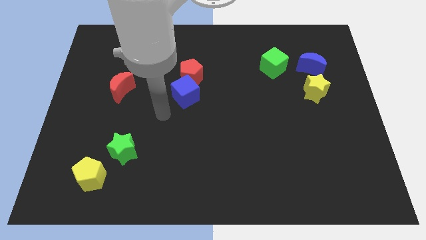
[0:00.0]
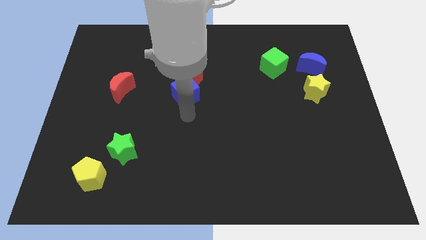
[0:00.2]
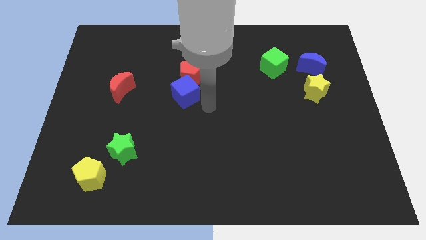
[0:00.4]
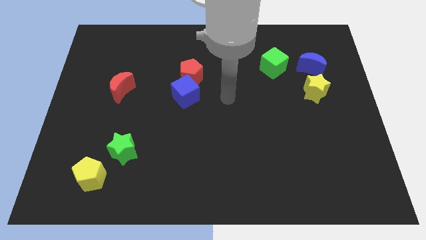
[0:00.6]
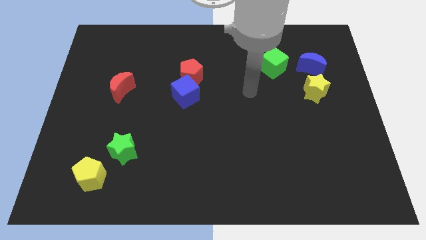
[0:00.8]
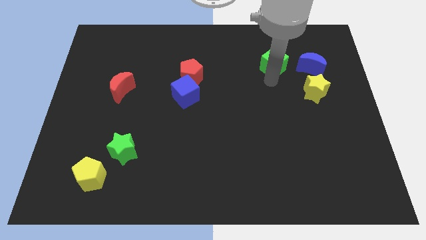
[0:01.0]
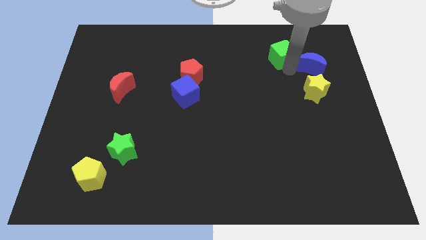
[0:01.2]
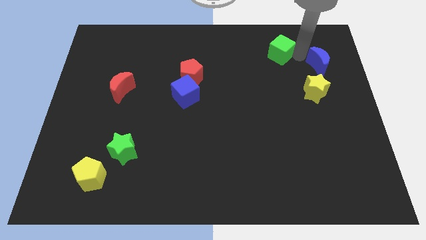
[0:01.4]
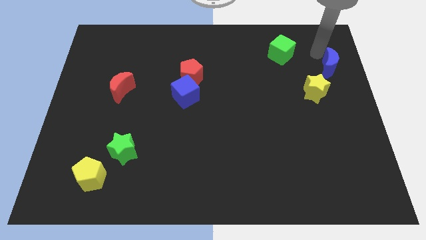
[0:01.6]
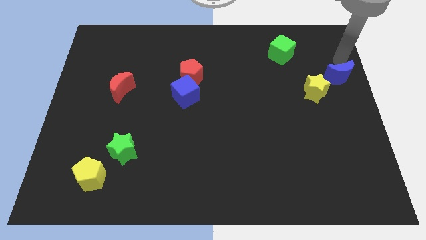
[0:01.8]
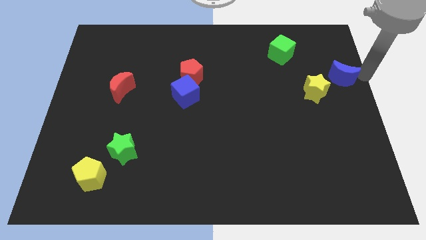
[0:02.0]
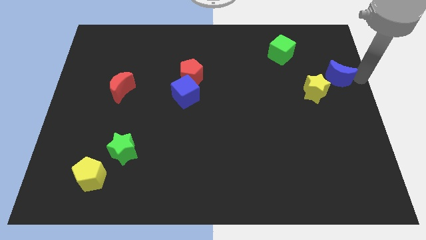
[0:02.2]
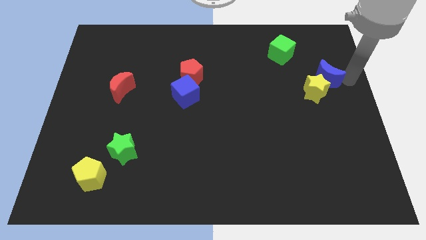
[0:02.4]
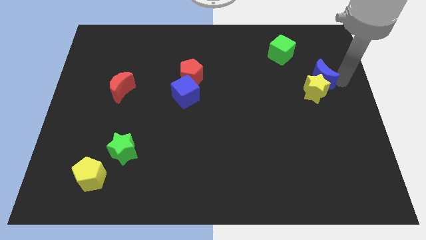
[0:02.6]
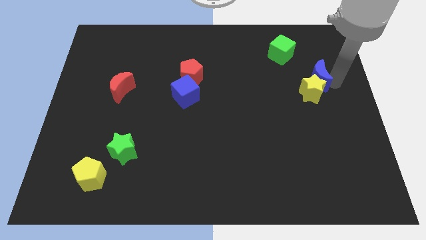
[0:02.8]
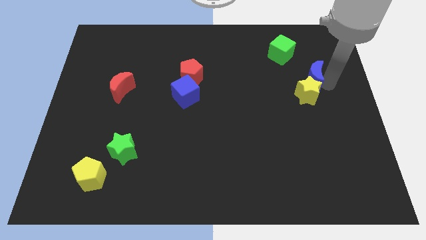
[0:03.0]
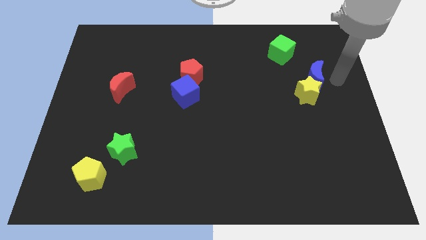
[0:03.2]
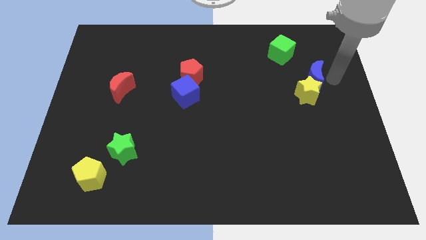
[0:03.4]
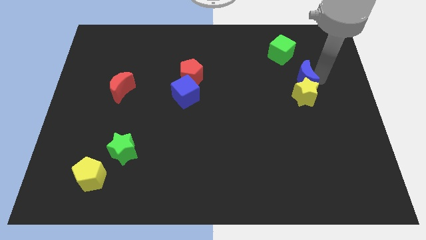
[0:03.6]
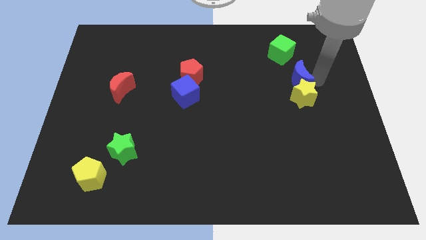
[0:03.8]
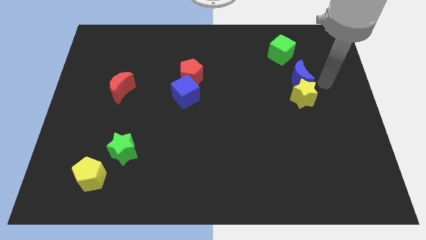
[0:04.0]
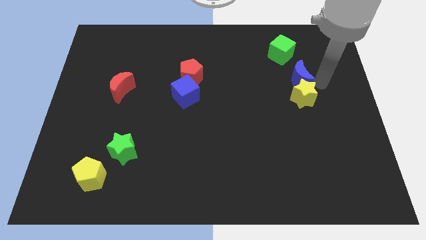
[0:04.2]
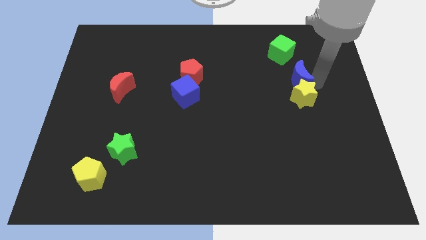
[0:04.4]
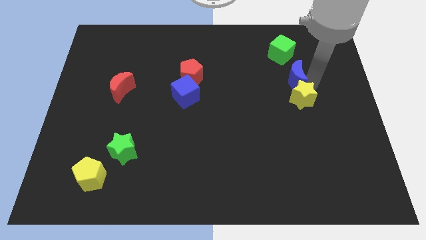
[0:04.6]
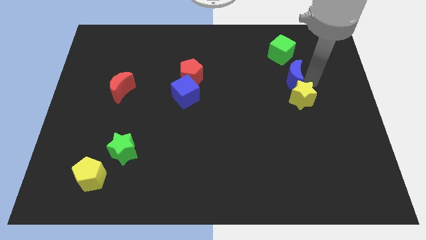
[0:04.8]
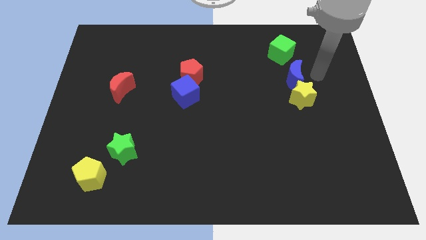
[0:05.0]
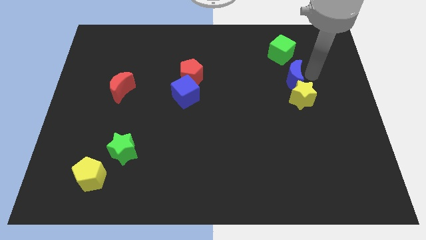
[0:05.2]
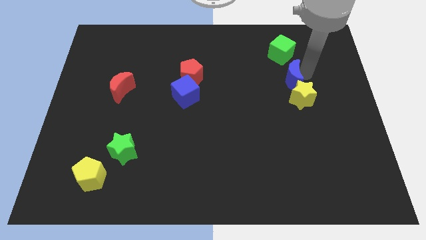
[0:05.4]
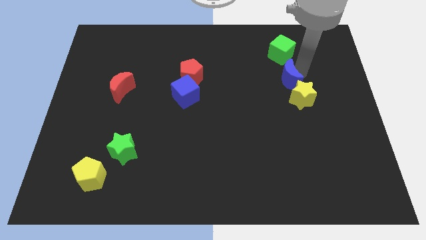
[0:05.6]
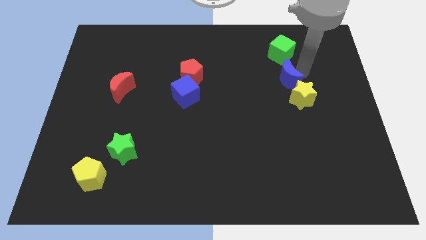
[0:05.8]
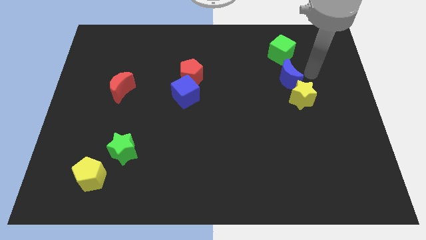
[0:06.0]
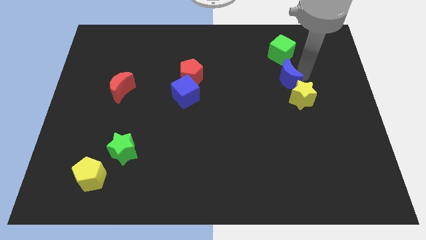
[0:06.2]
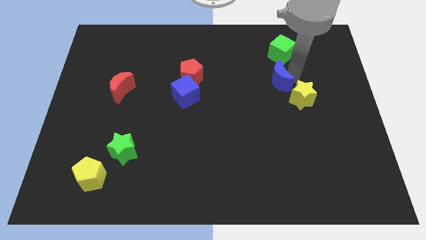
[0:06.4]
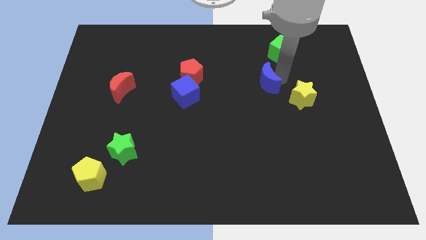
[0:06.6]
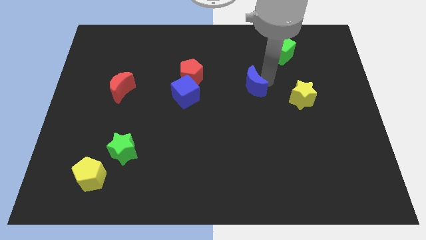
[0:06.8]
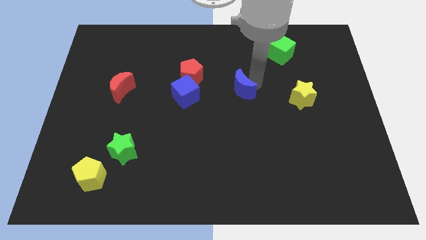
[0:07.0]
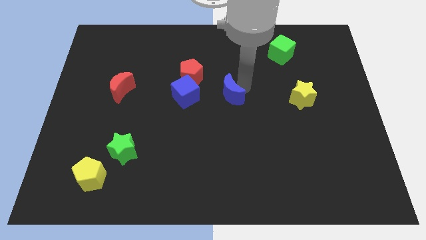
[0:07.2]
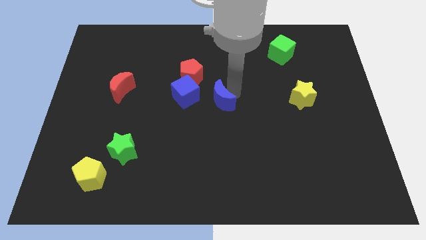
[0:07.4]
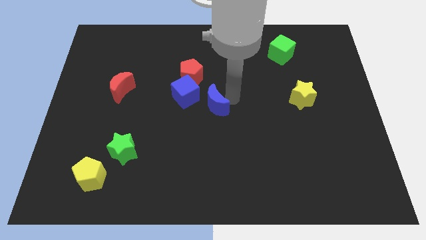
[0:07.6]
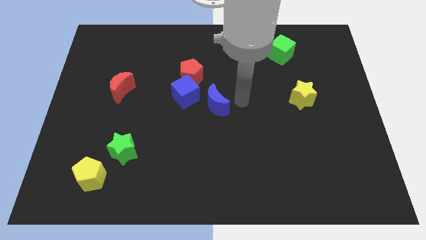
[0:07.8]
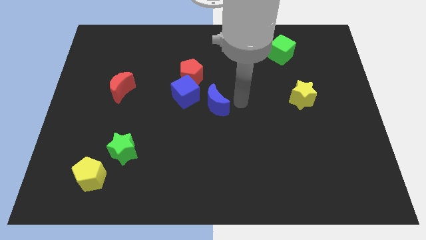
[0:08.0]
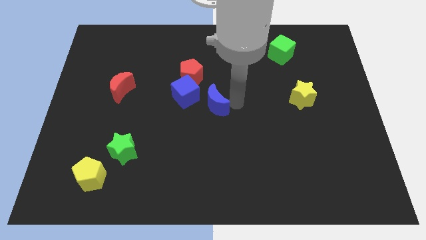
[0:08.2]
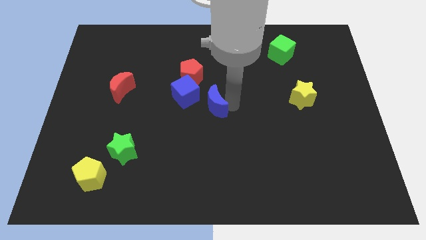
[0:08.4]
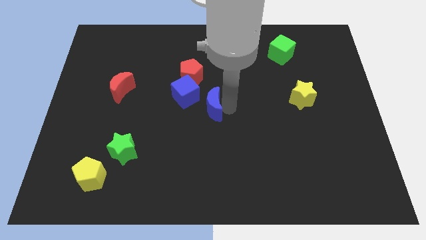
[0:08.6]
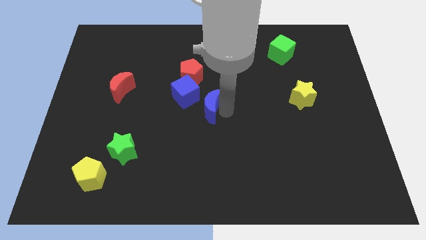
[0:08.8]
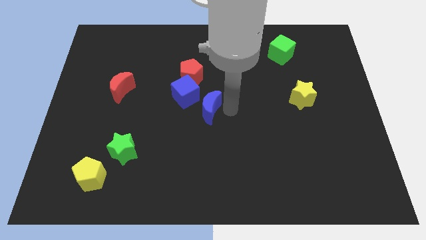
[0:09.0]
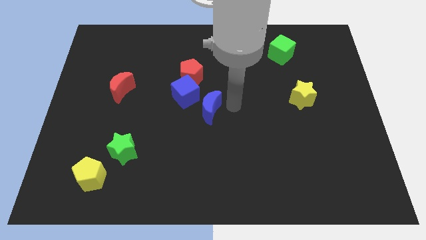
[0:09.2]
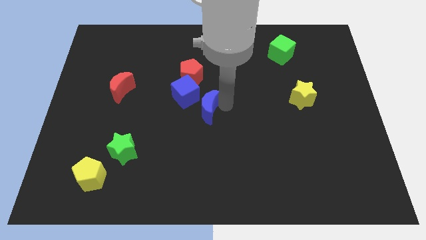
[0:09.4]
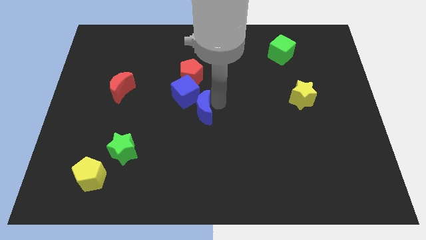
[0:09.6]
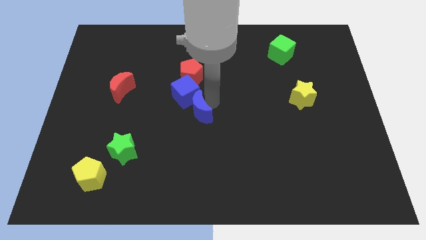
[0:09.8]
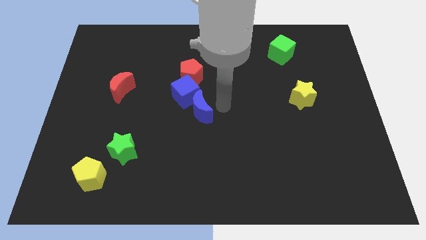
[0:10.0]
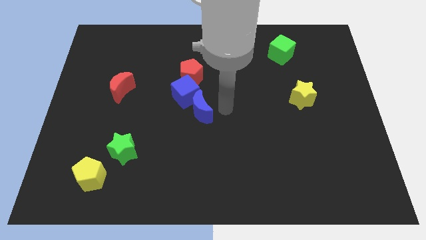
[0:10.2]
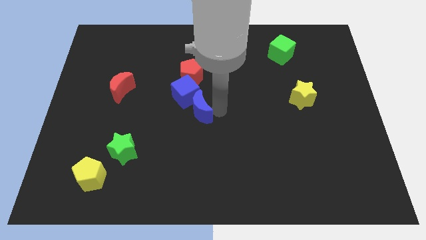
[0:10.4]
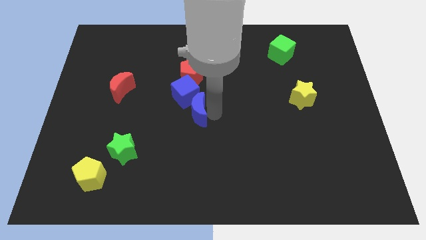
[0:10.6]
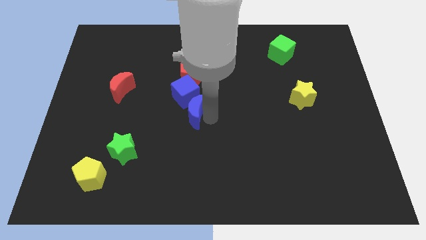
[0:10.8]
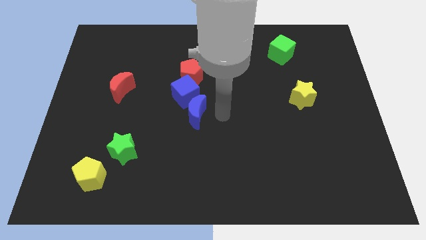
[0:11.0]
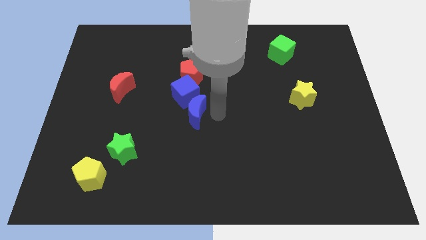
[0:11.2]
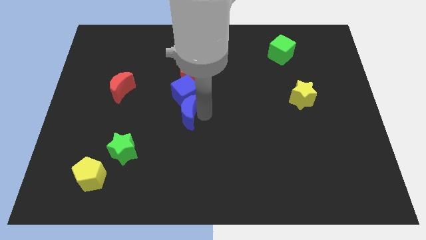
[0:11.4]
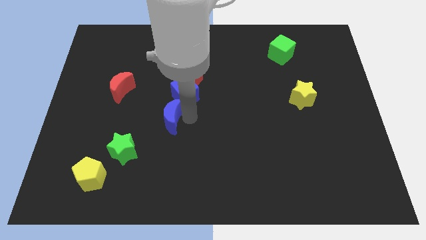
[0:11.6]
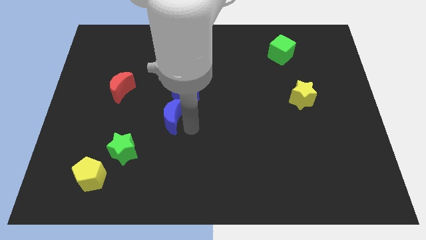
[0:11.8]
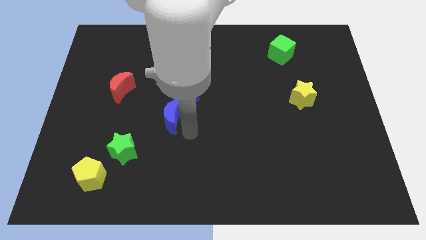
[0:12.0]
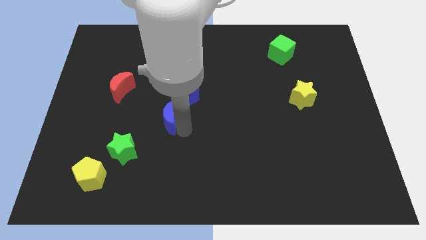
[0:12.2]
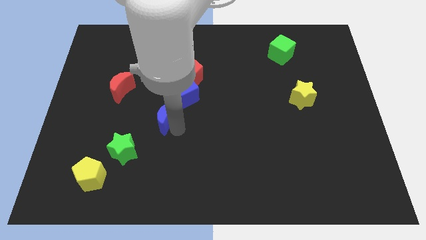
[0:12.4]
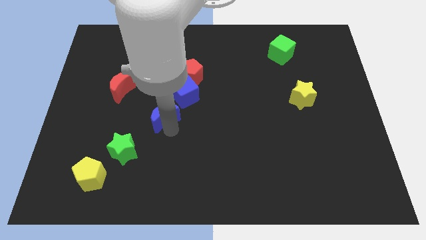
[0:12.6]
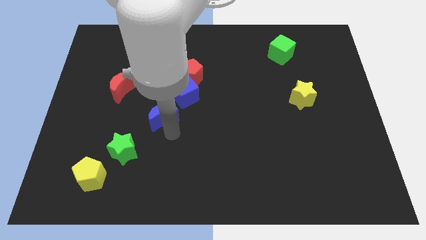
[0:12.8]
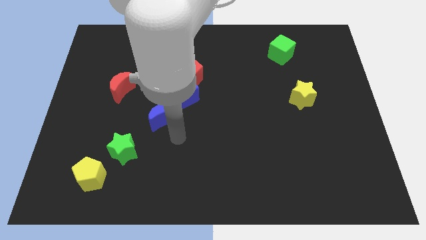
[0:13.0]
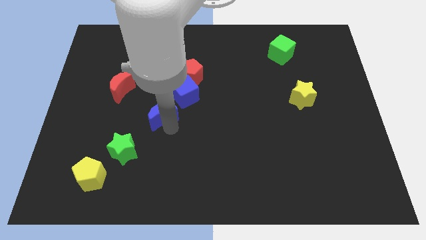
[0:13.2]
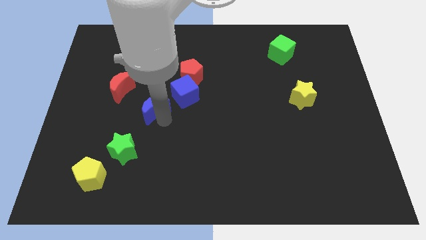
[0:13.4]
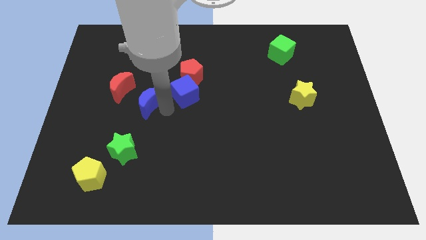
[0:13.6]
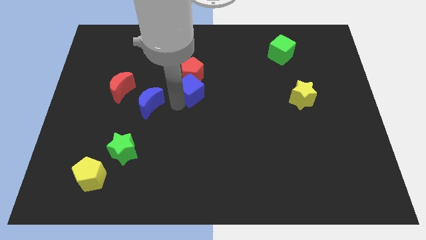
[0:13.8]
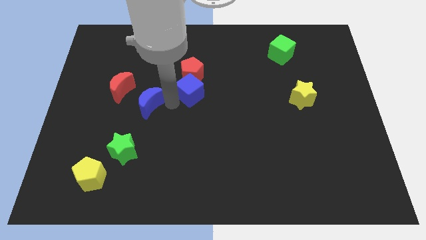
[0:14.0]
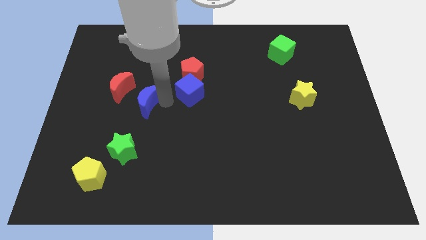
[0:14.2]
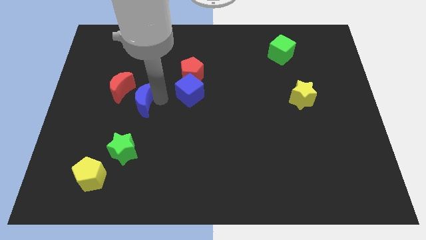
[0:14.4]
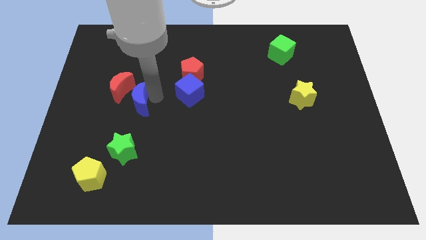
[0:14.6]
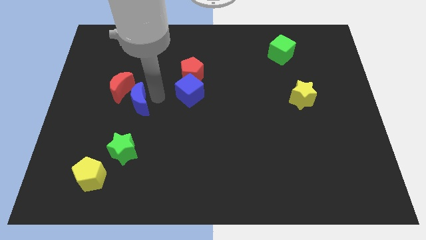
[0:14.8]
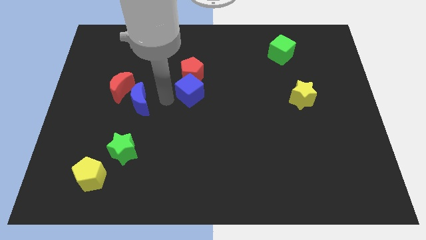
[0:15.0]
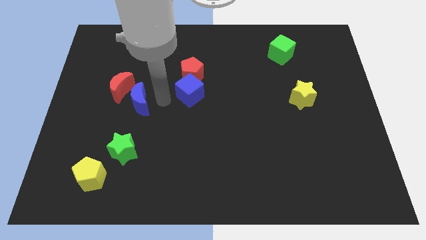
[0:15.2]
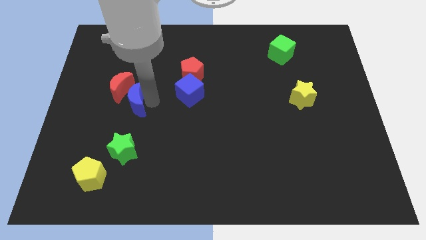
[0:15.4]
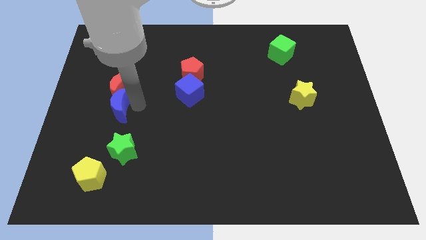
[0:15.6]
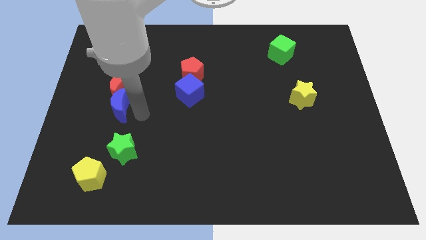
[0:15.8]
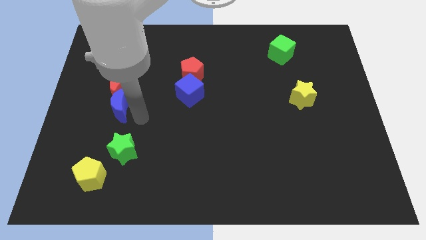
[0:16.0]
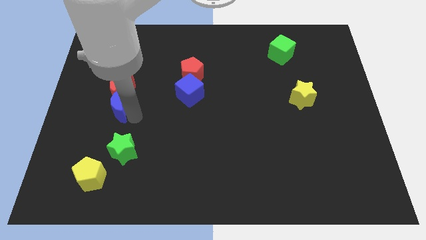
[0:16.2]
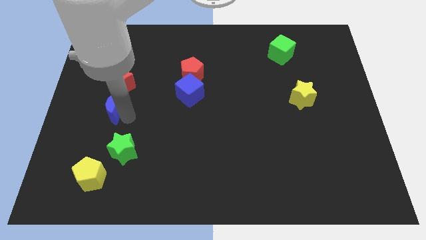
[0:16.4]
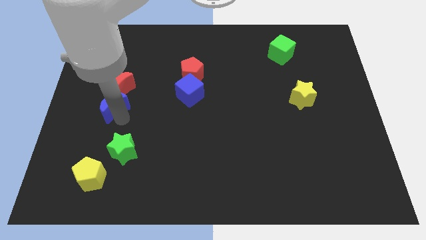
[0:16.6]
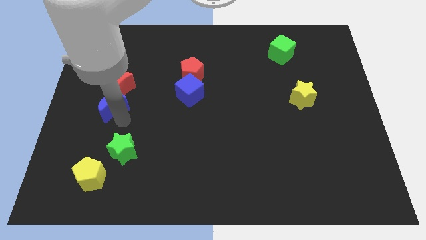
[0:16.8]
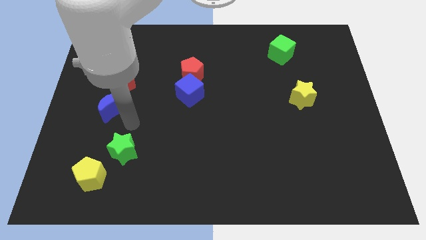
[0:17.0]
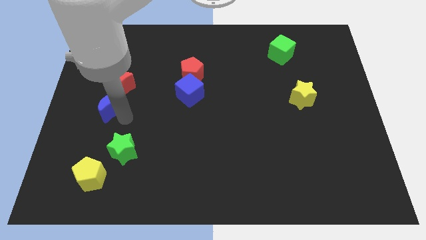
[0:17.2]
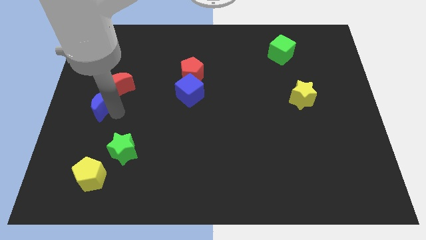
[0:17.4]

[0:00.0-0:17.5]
put the blue moon to the left side of the board
